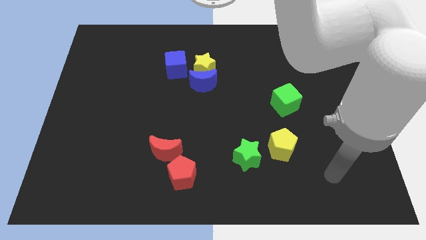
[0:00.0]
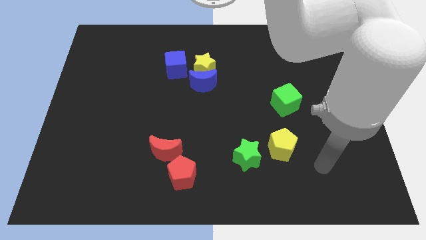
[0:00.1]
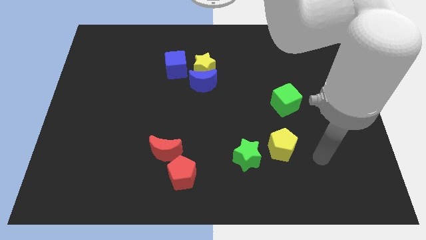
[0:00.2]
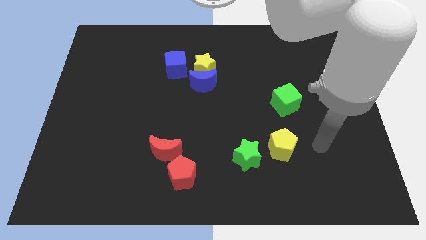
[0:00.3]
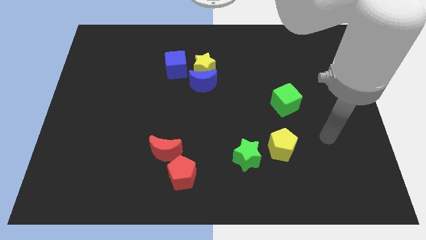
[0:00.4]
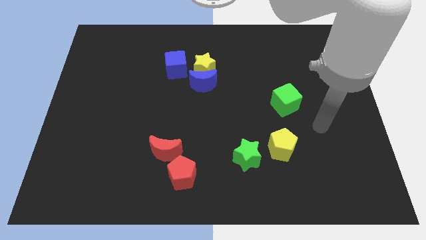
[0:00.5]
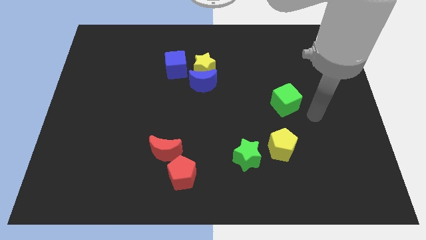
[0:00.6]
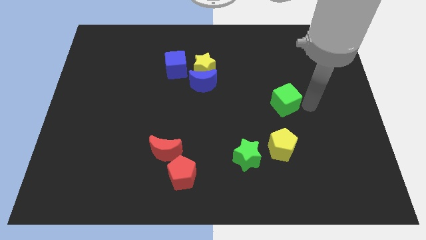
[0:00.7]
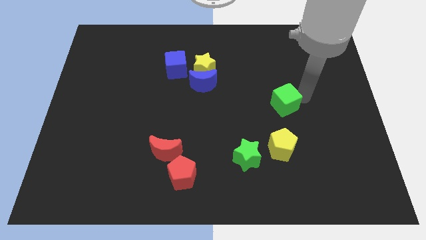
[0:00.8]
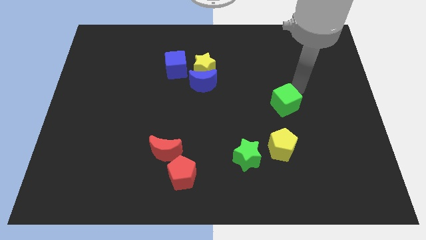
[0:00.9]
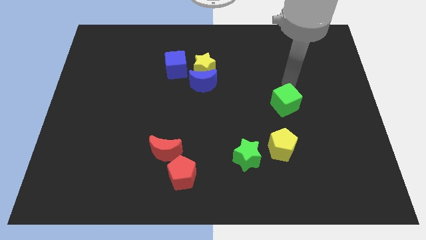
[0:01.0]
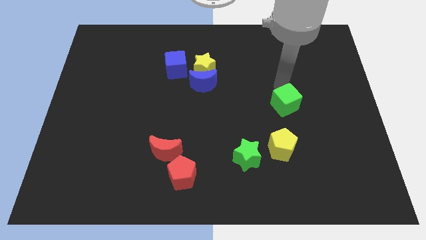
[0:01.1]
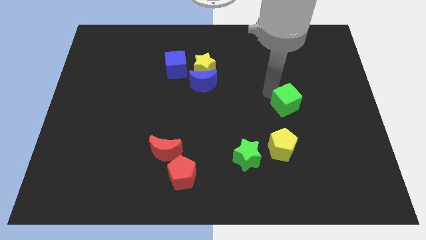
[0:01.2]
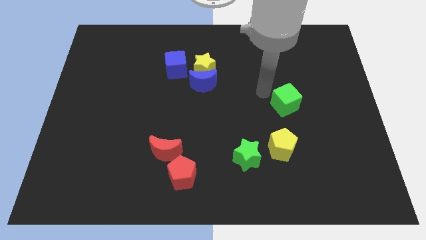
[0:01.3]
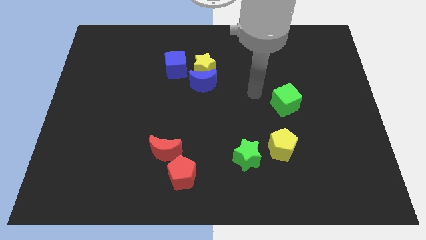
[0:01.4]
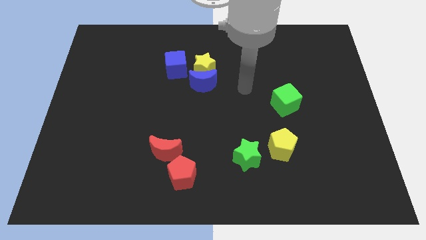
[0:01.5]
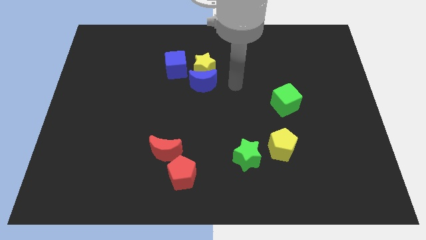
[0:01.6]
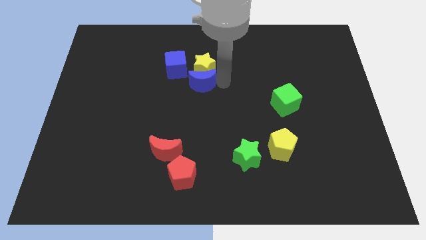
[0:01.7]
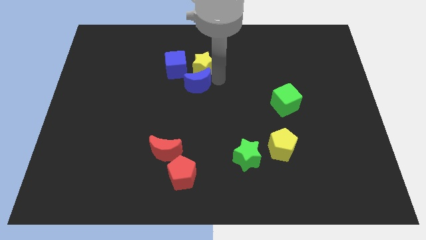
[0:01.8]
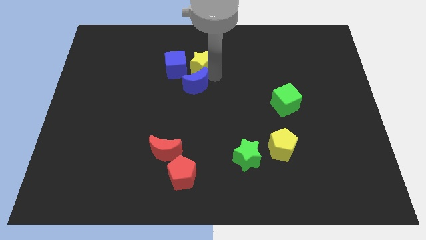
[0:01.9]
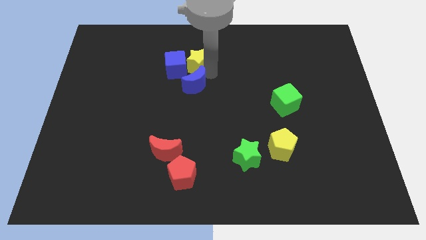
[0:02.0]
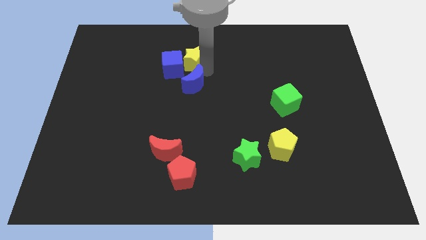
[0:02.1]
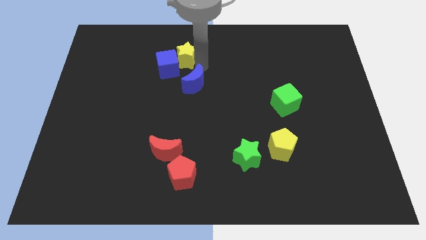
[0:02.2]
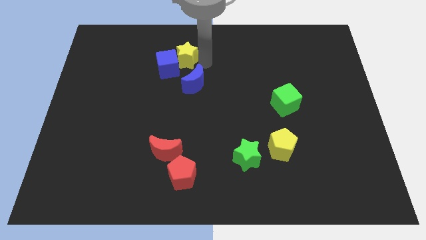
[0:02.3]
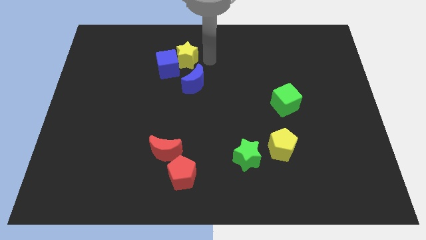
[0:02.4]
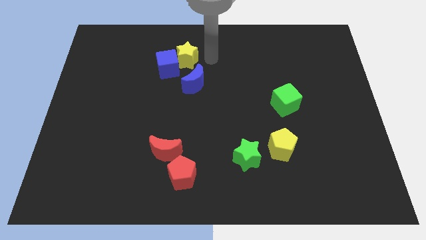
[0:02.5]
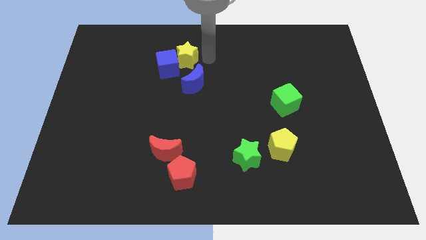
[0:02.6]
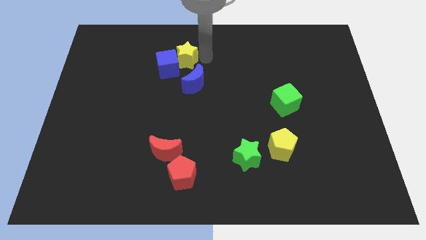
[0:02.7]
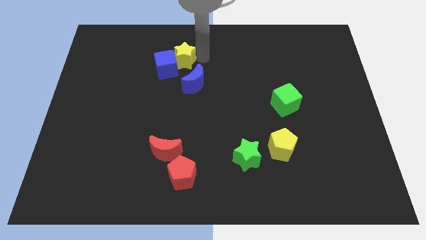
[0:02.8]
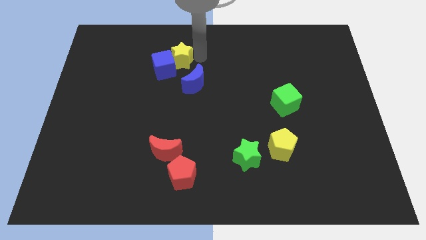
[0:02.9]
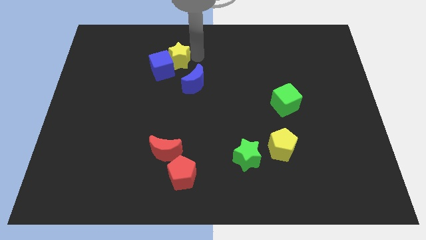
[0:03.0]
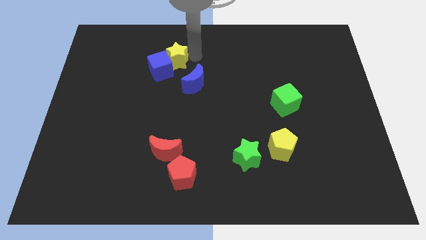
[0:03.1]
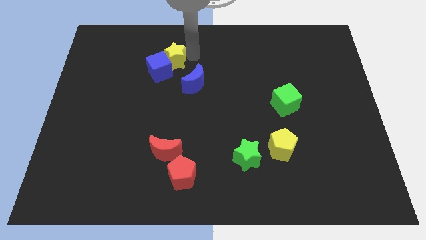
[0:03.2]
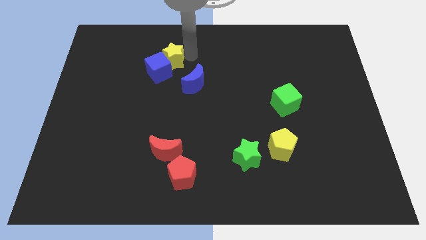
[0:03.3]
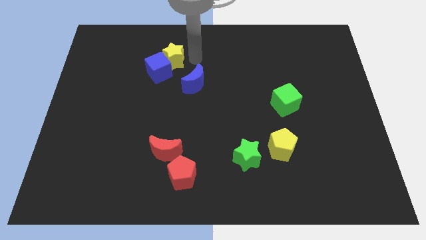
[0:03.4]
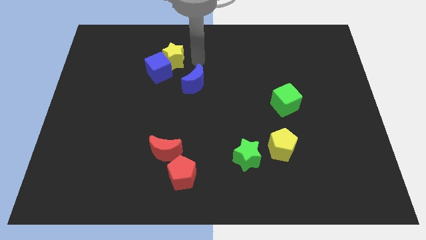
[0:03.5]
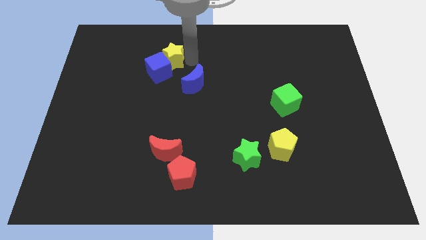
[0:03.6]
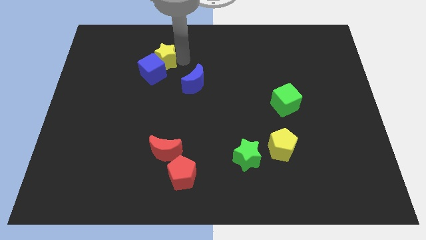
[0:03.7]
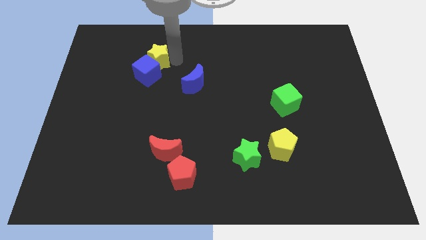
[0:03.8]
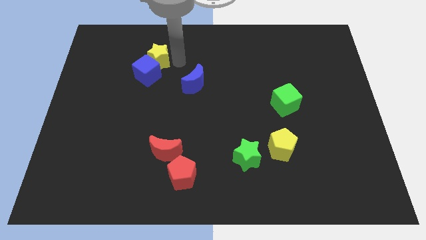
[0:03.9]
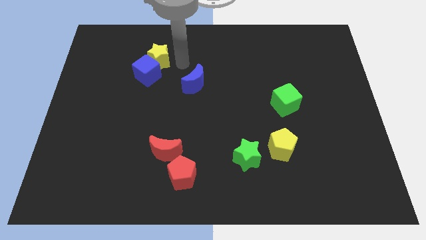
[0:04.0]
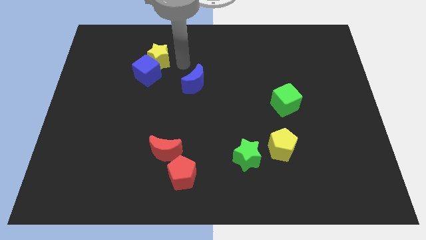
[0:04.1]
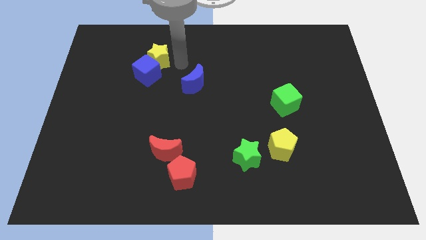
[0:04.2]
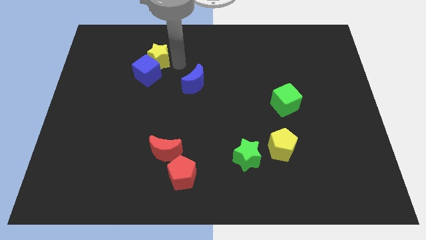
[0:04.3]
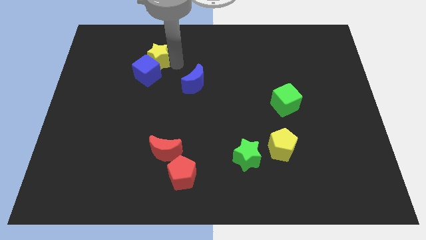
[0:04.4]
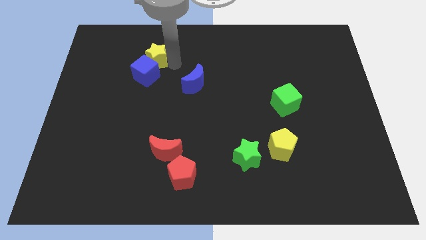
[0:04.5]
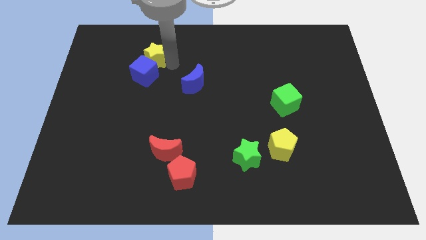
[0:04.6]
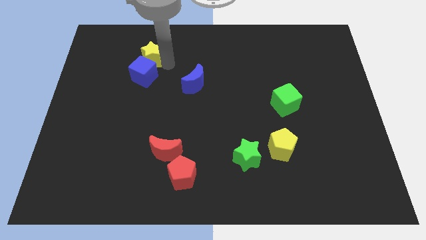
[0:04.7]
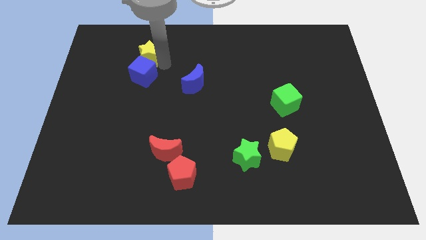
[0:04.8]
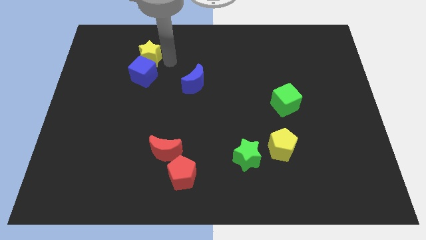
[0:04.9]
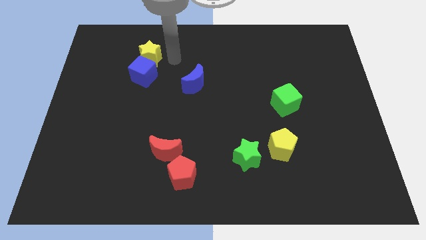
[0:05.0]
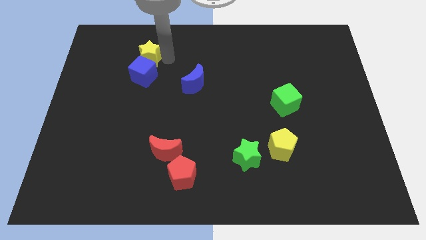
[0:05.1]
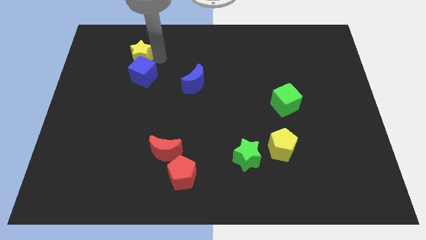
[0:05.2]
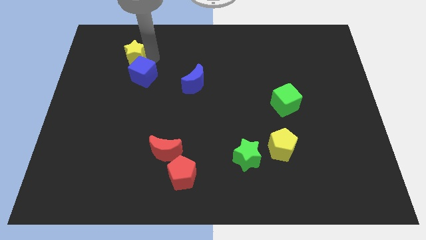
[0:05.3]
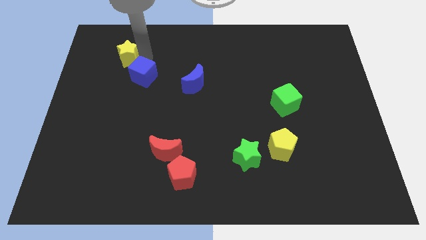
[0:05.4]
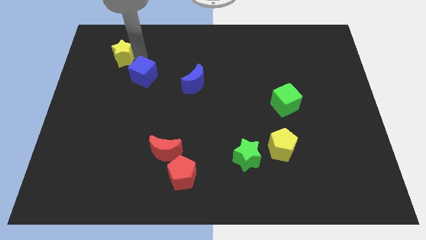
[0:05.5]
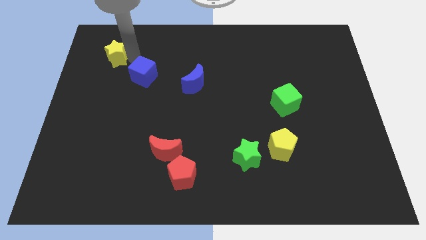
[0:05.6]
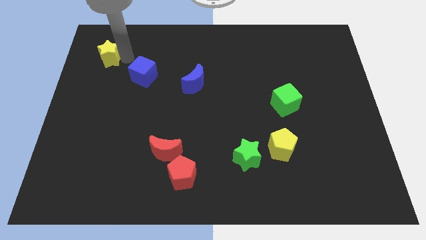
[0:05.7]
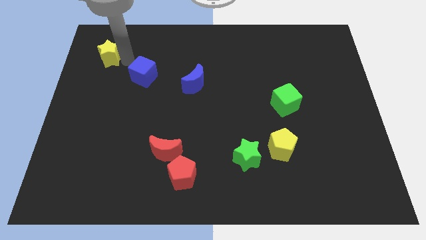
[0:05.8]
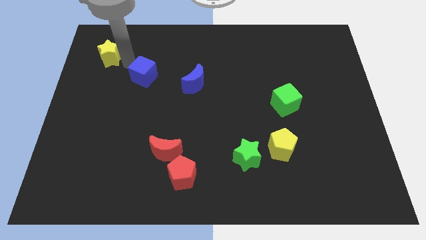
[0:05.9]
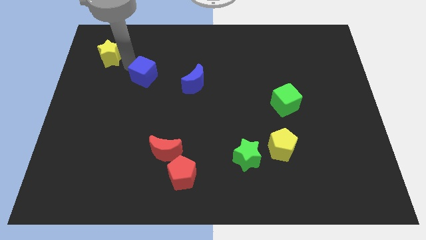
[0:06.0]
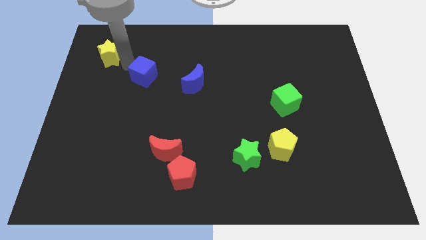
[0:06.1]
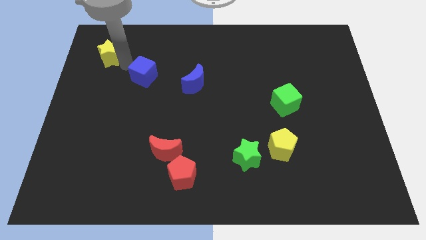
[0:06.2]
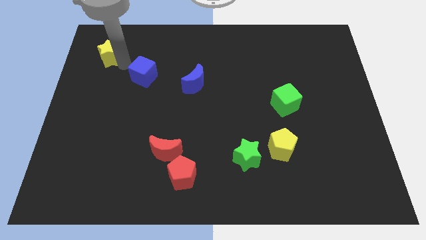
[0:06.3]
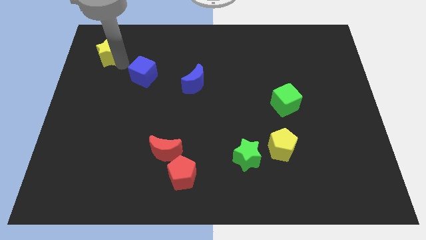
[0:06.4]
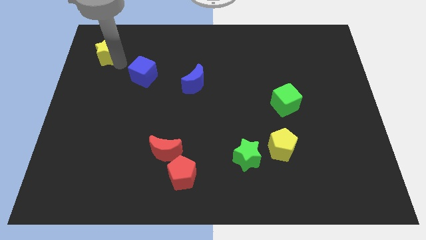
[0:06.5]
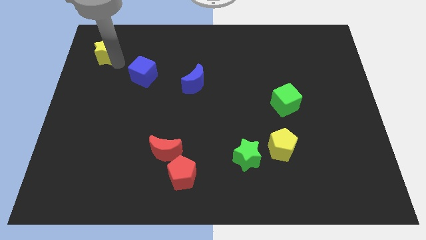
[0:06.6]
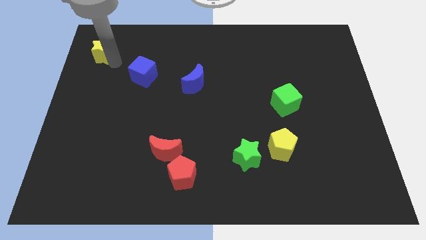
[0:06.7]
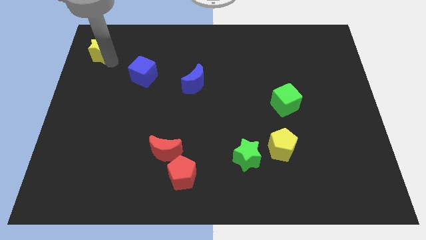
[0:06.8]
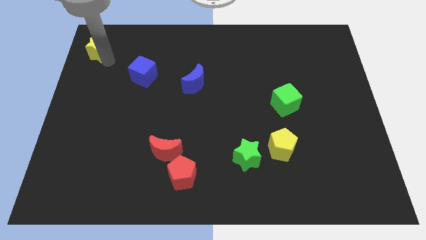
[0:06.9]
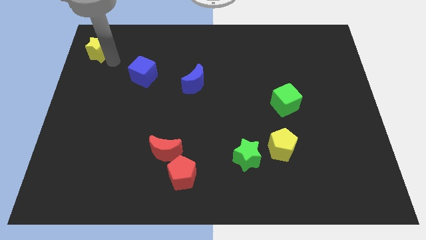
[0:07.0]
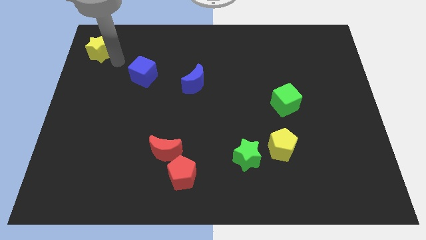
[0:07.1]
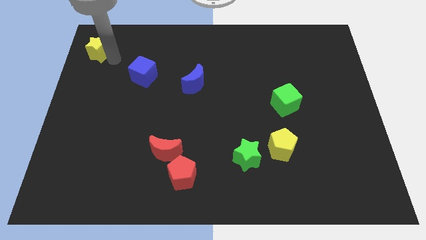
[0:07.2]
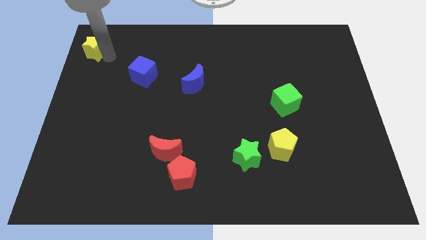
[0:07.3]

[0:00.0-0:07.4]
slide the yellow star to the top left

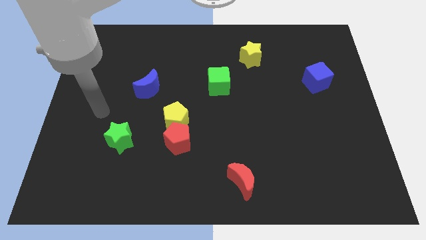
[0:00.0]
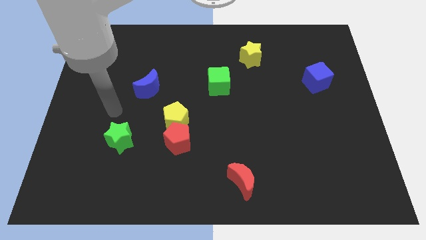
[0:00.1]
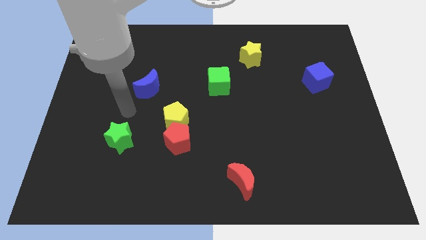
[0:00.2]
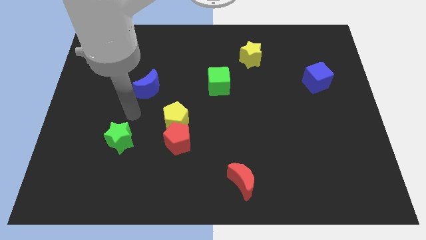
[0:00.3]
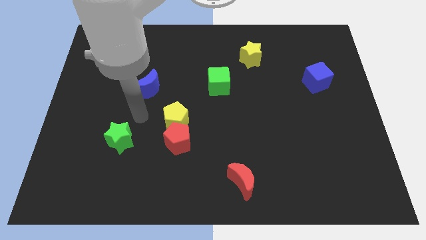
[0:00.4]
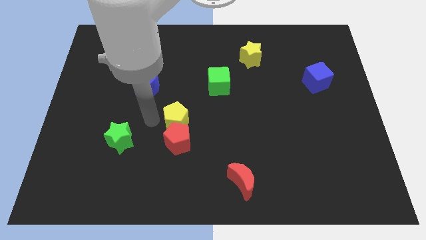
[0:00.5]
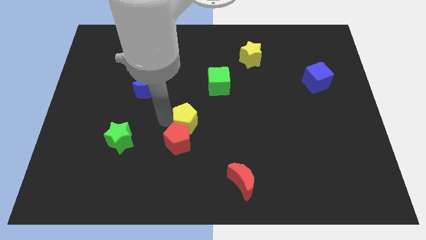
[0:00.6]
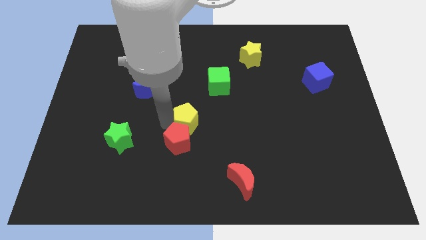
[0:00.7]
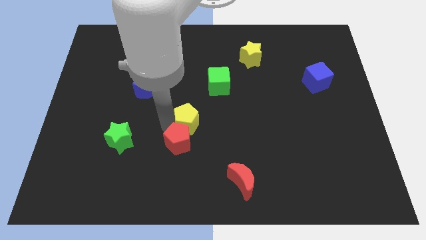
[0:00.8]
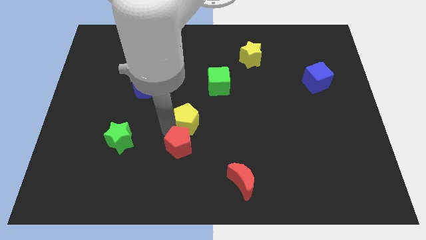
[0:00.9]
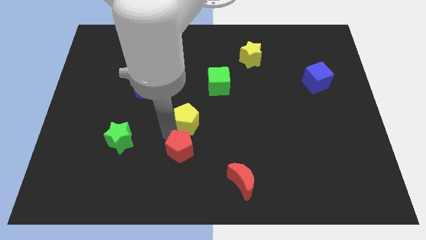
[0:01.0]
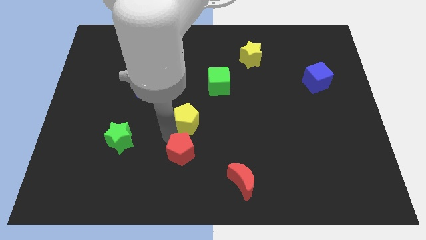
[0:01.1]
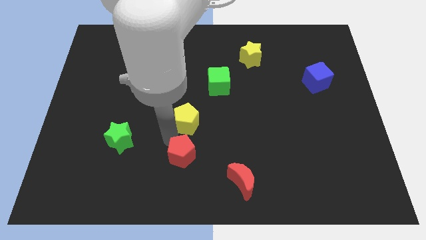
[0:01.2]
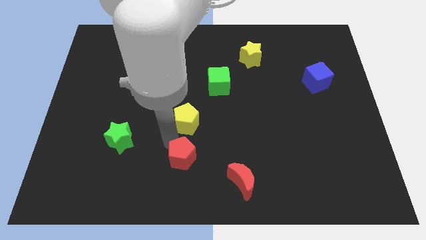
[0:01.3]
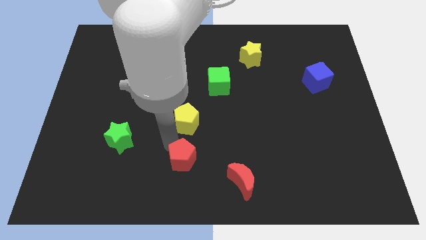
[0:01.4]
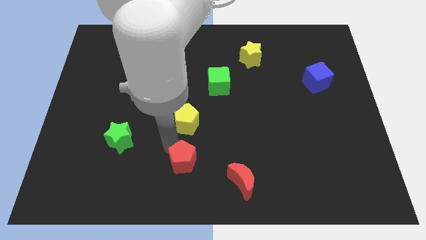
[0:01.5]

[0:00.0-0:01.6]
put the red pentagon to the bottom side
